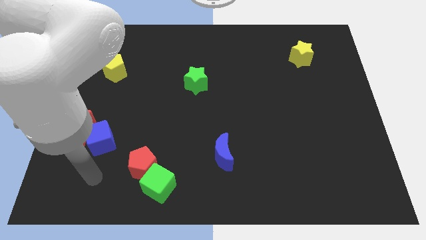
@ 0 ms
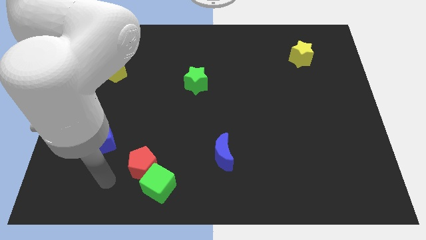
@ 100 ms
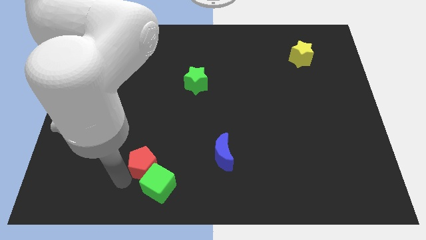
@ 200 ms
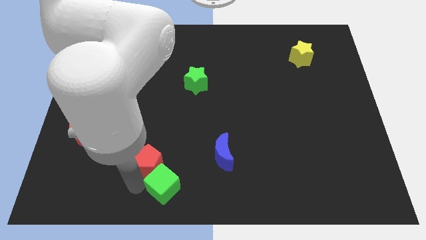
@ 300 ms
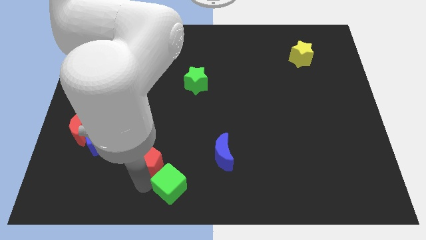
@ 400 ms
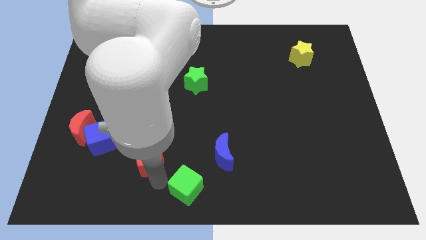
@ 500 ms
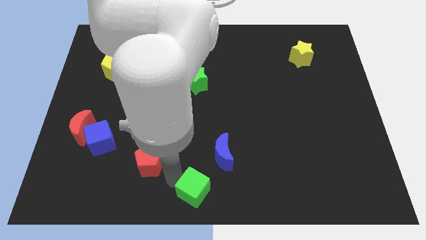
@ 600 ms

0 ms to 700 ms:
pull the red pentagon apart from the green cube

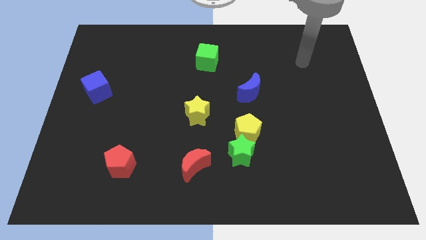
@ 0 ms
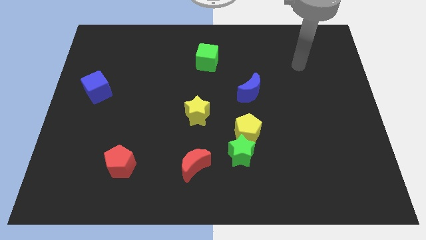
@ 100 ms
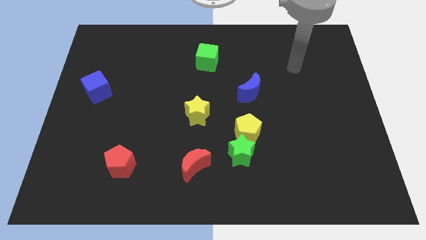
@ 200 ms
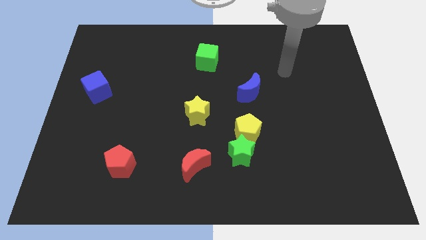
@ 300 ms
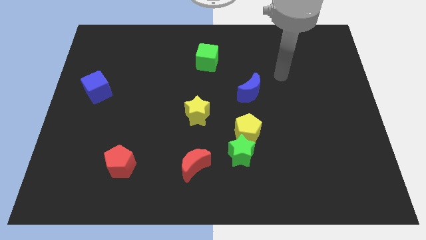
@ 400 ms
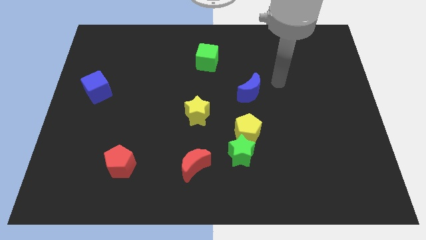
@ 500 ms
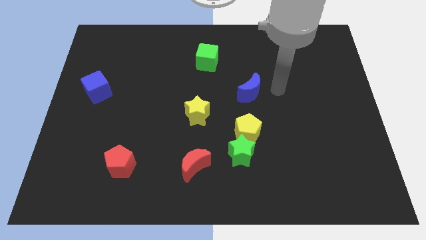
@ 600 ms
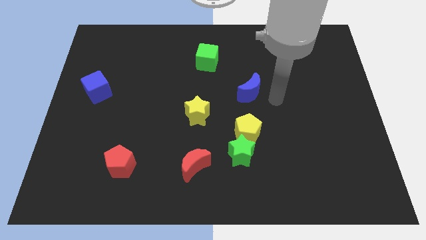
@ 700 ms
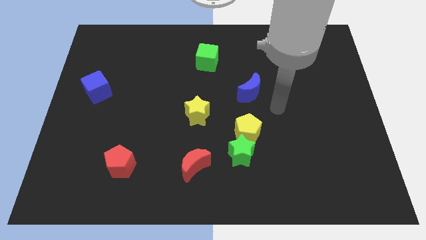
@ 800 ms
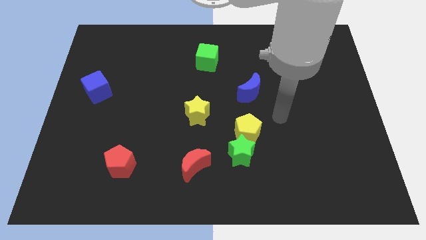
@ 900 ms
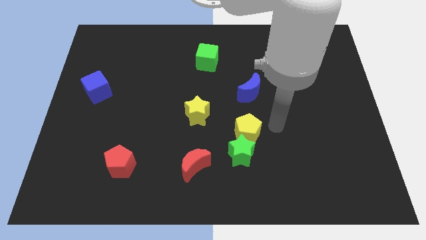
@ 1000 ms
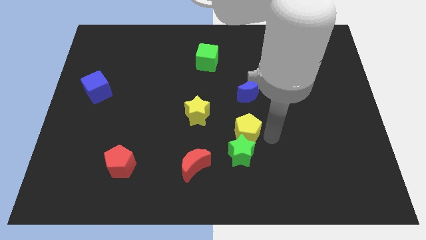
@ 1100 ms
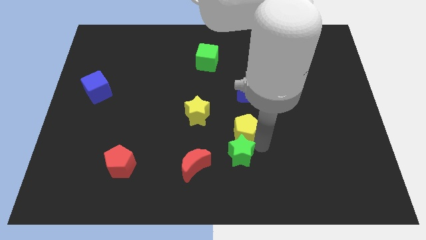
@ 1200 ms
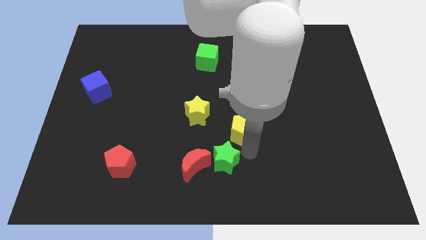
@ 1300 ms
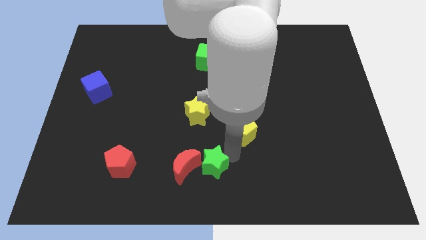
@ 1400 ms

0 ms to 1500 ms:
separate the yellow pentagon from the green star

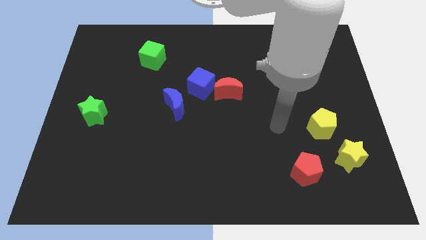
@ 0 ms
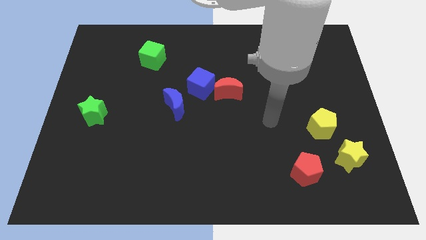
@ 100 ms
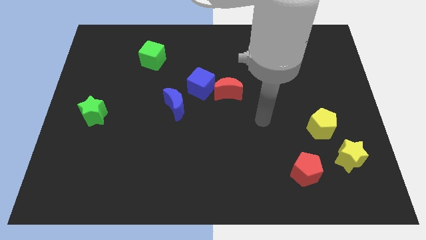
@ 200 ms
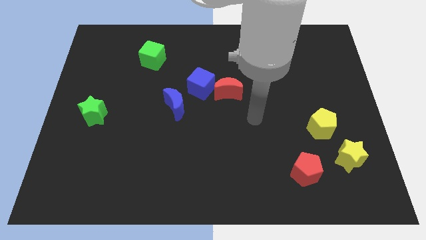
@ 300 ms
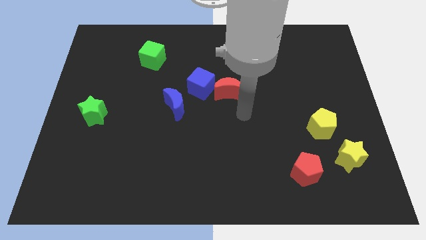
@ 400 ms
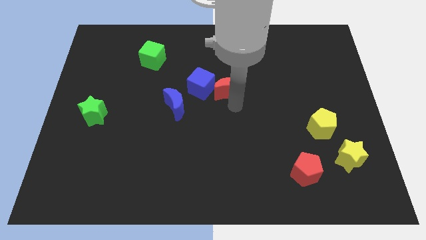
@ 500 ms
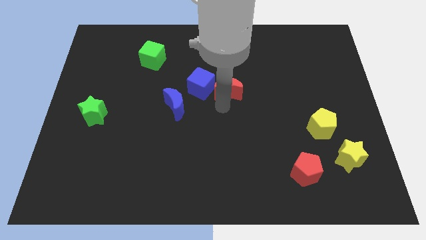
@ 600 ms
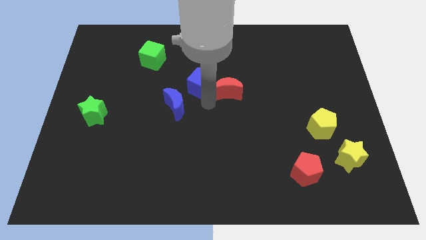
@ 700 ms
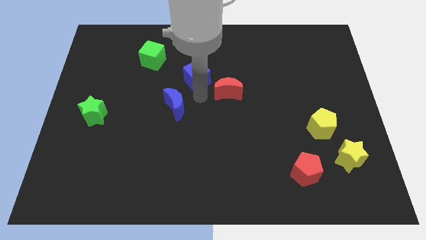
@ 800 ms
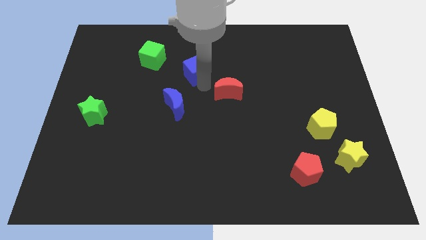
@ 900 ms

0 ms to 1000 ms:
pull the red moon apart from the blue cube

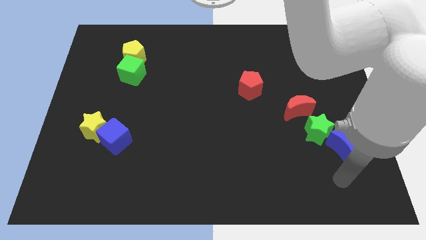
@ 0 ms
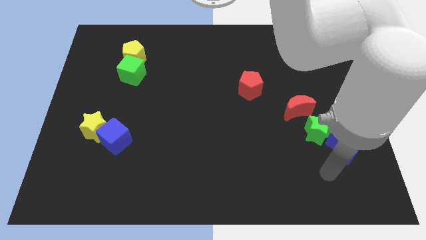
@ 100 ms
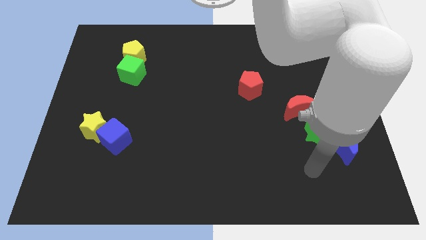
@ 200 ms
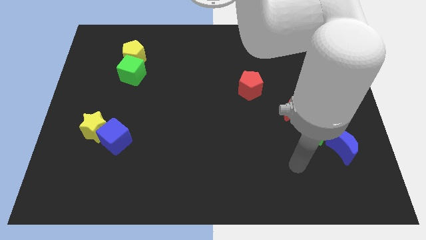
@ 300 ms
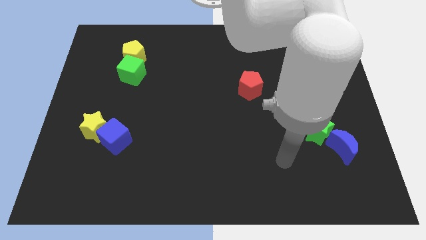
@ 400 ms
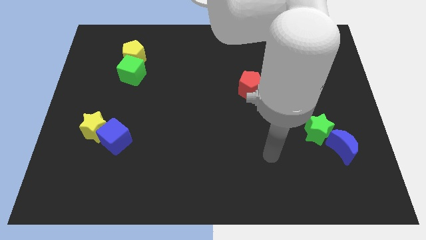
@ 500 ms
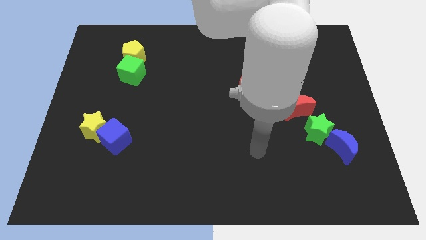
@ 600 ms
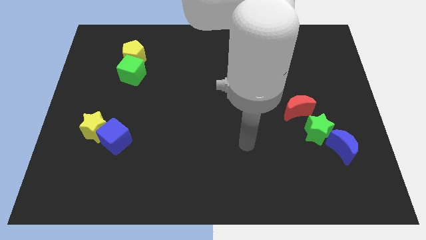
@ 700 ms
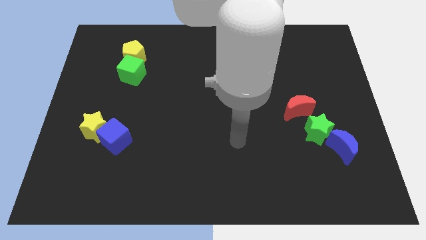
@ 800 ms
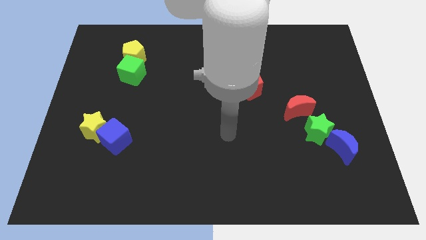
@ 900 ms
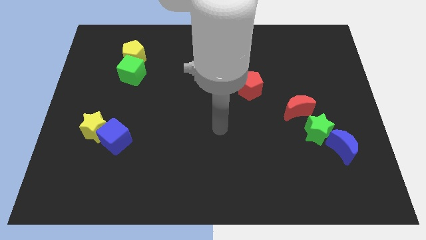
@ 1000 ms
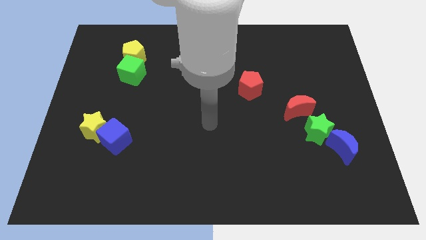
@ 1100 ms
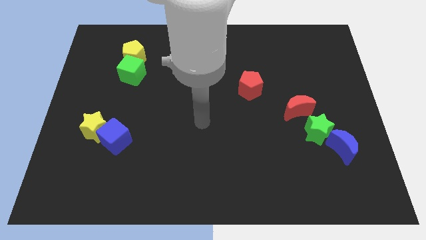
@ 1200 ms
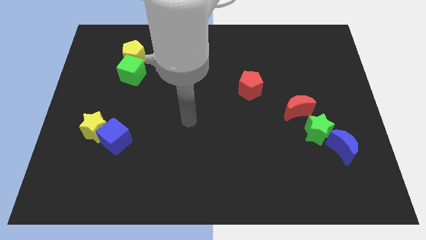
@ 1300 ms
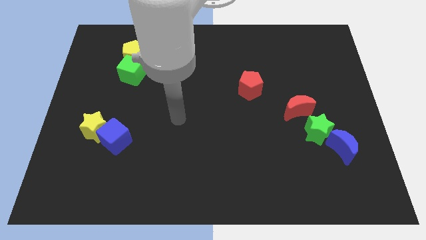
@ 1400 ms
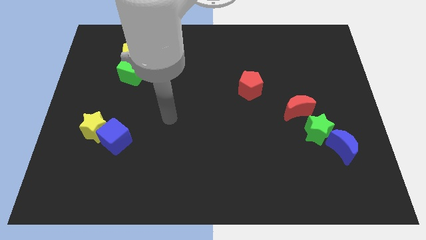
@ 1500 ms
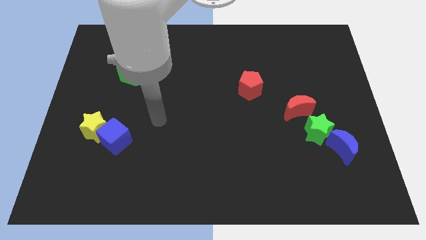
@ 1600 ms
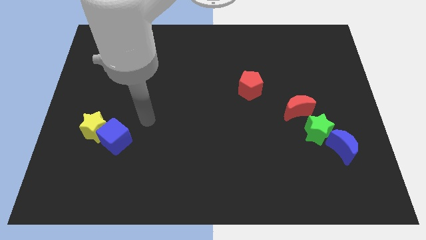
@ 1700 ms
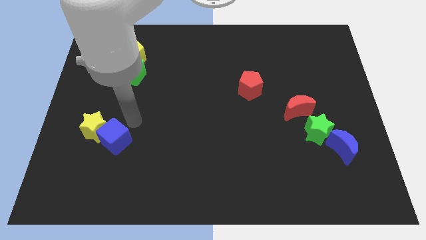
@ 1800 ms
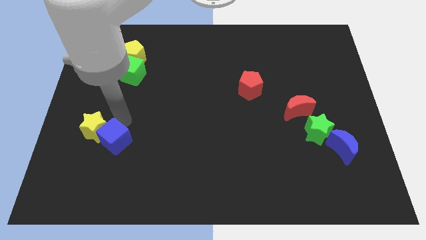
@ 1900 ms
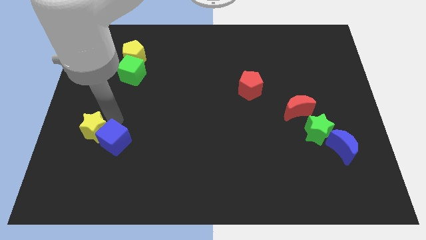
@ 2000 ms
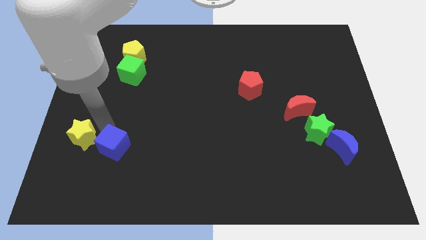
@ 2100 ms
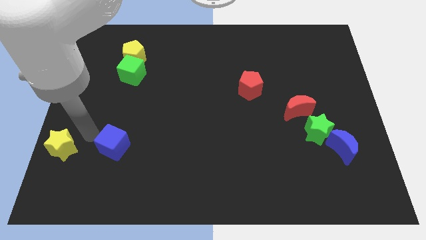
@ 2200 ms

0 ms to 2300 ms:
pull the blue cube apart from the yellow star

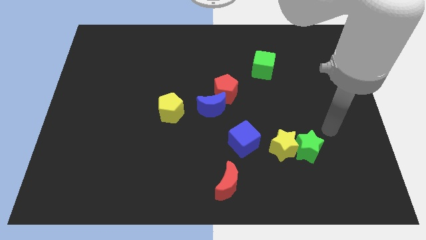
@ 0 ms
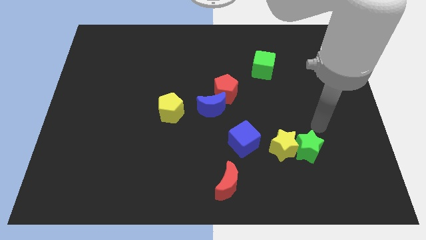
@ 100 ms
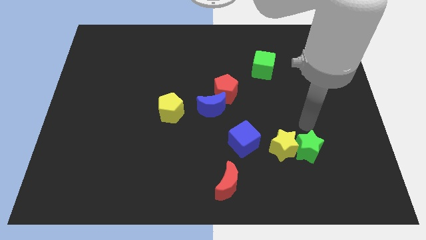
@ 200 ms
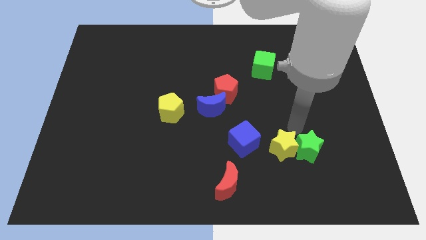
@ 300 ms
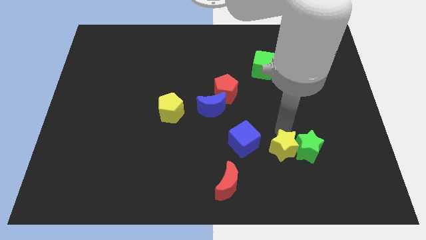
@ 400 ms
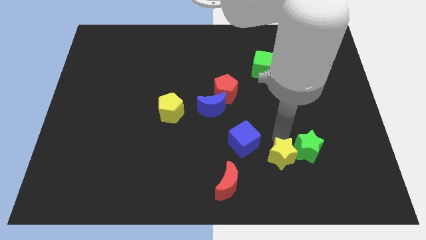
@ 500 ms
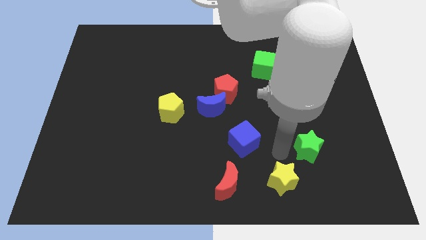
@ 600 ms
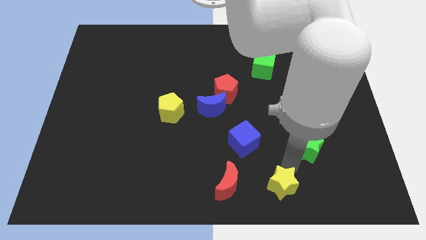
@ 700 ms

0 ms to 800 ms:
move the green star away from the yellow star

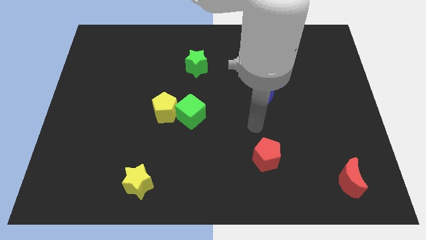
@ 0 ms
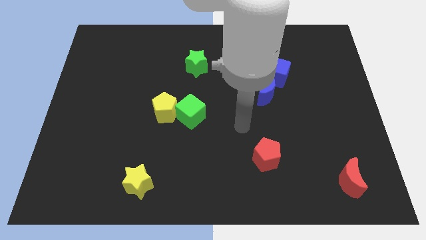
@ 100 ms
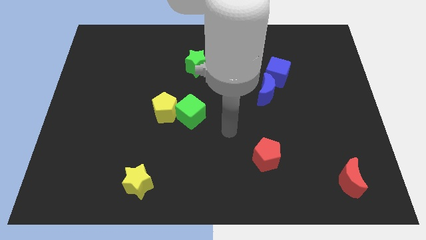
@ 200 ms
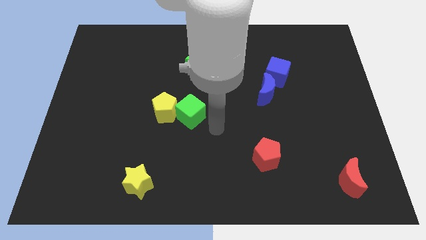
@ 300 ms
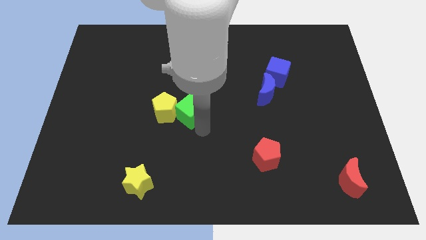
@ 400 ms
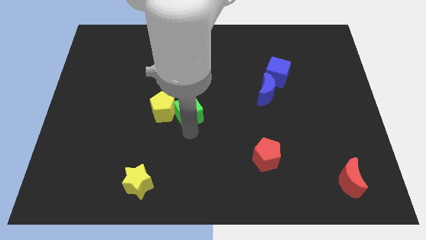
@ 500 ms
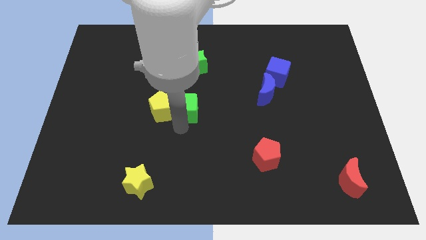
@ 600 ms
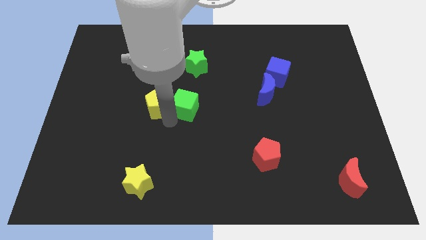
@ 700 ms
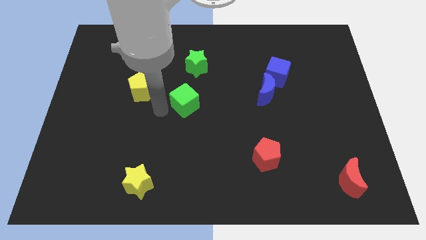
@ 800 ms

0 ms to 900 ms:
separate the green cube from the yellow pentagon

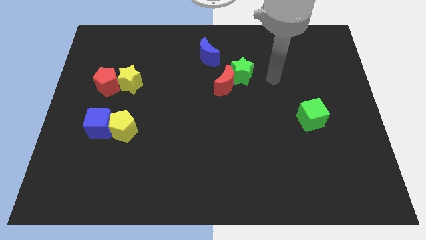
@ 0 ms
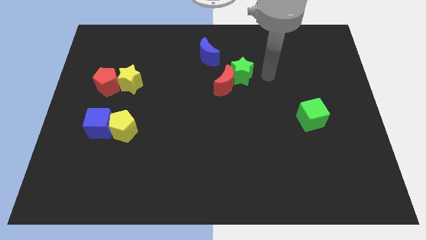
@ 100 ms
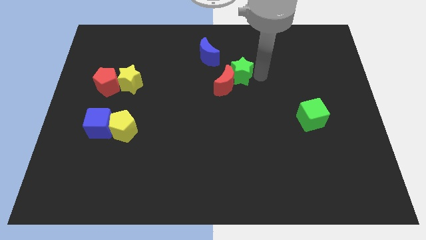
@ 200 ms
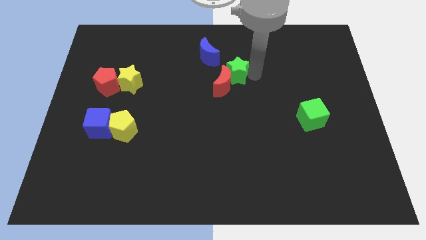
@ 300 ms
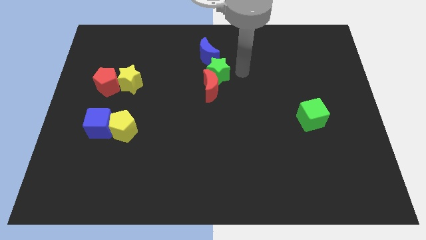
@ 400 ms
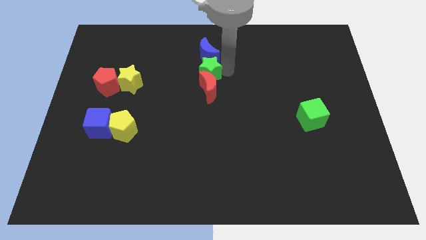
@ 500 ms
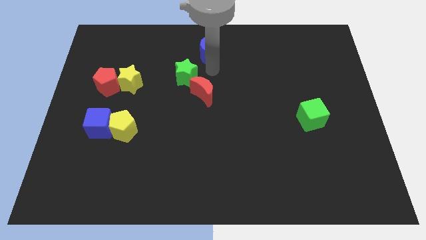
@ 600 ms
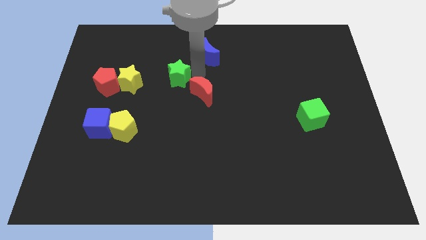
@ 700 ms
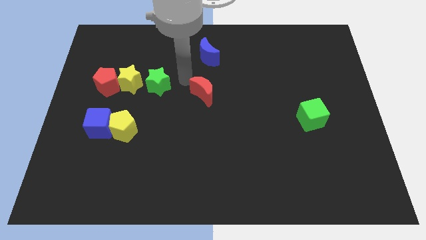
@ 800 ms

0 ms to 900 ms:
separate the red moon from the green star

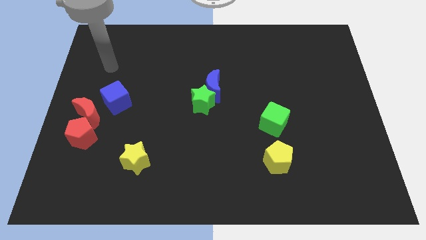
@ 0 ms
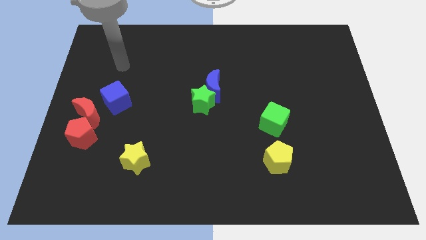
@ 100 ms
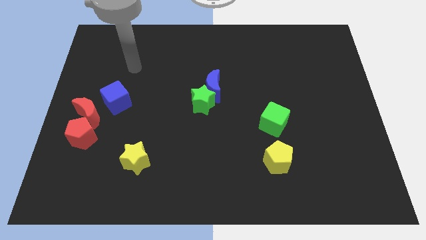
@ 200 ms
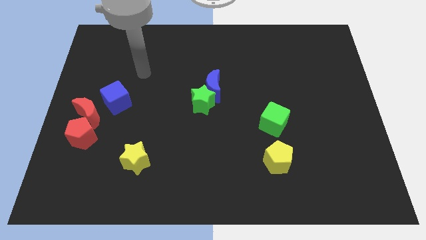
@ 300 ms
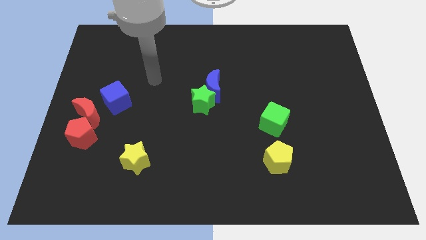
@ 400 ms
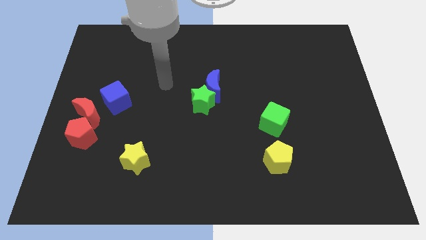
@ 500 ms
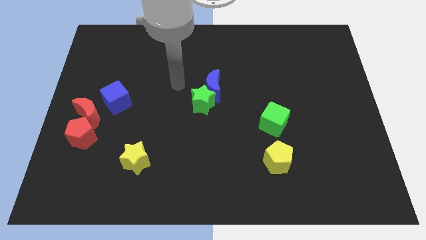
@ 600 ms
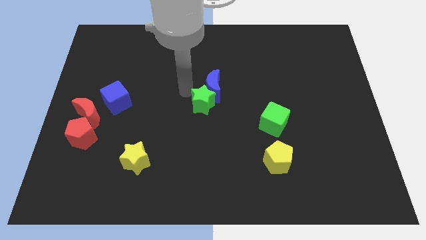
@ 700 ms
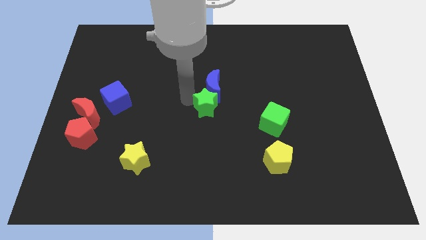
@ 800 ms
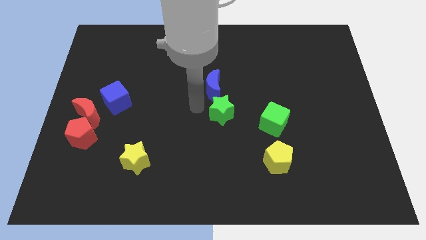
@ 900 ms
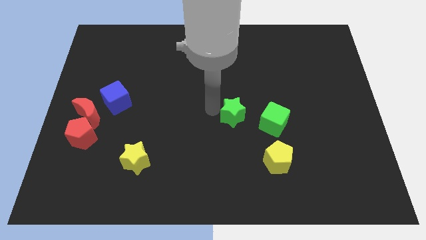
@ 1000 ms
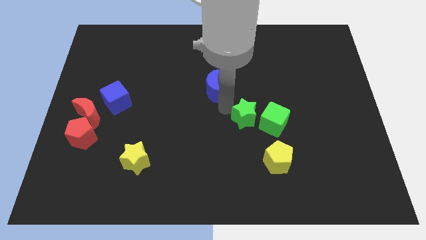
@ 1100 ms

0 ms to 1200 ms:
pull the blue moon apart from the green star
